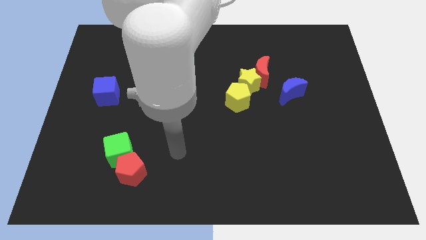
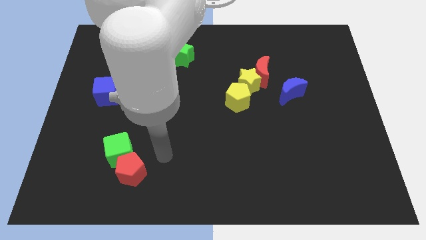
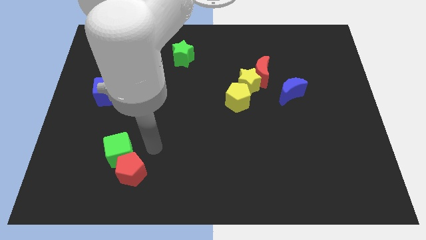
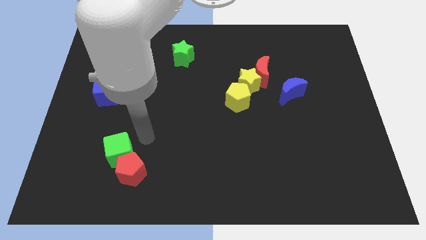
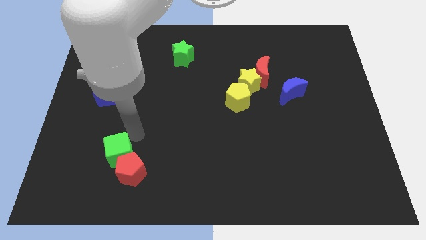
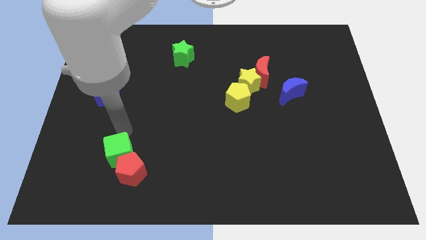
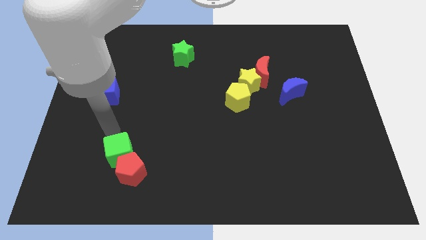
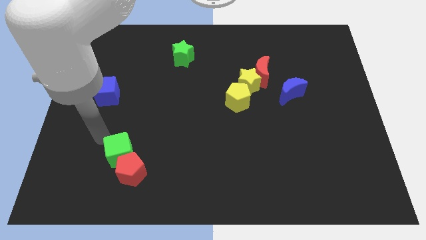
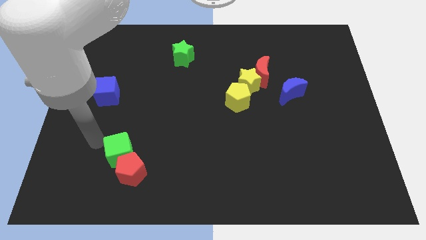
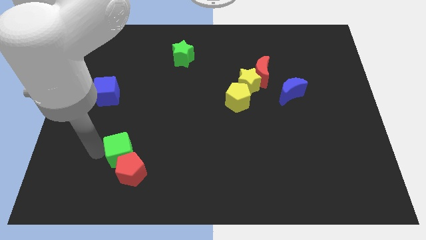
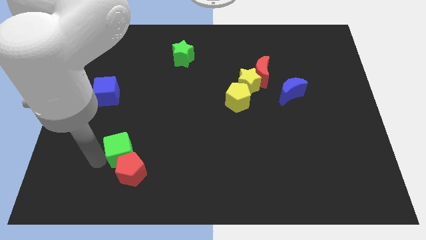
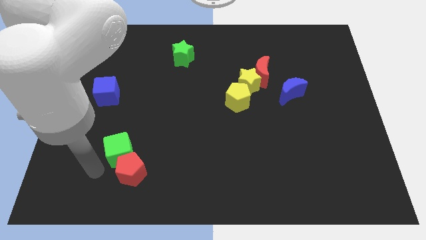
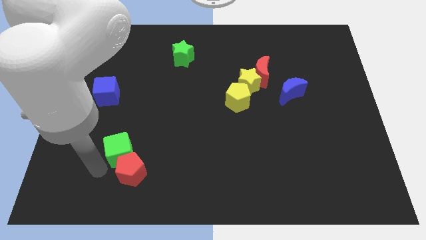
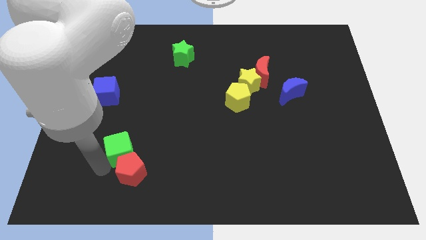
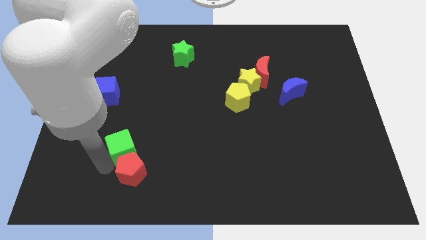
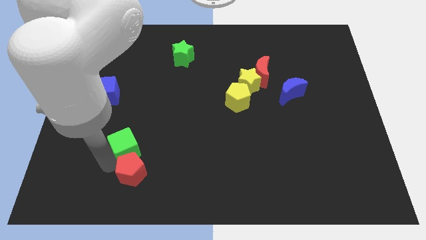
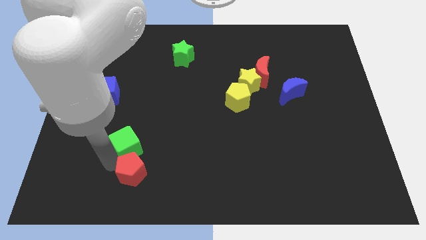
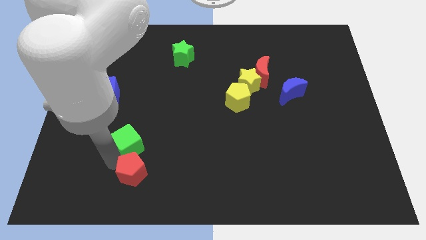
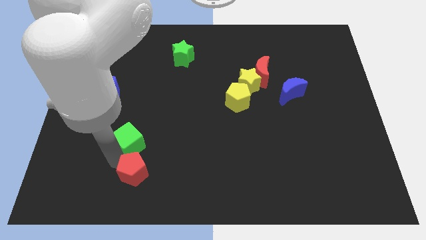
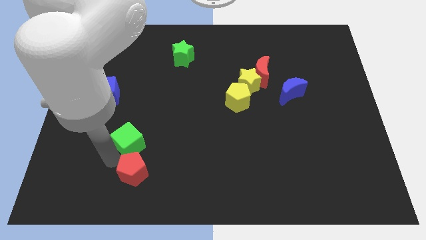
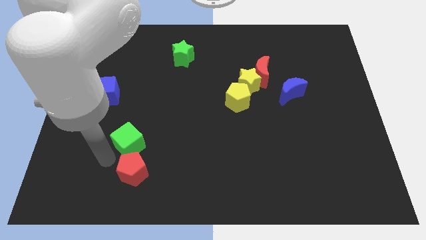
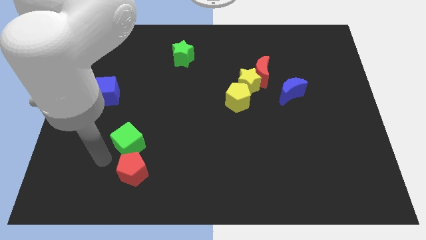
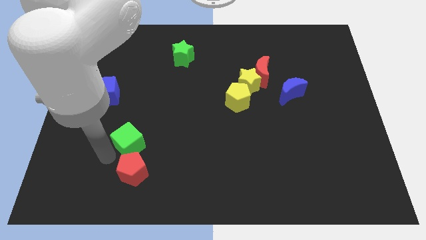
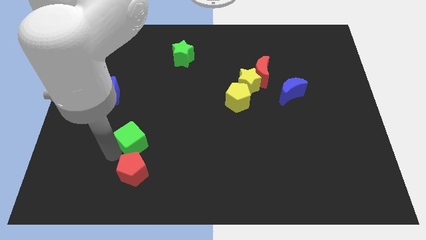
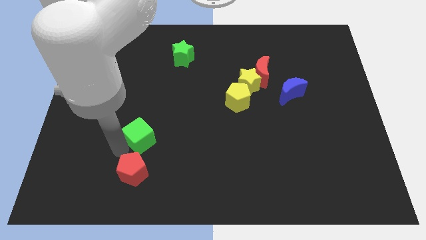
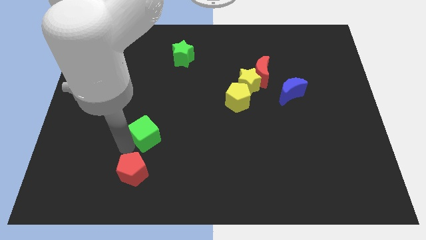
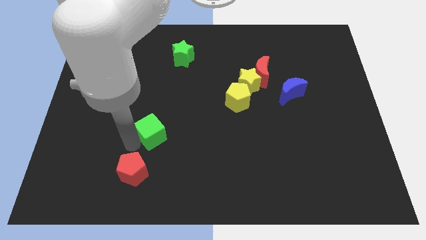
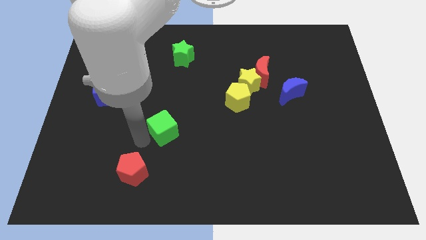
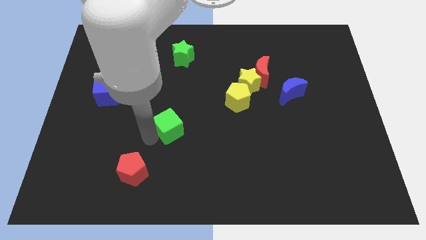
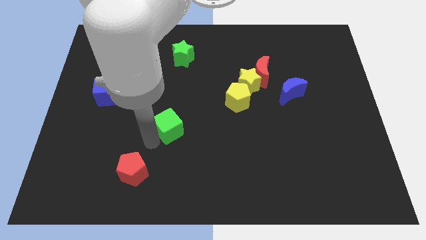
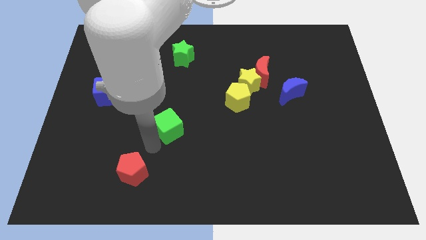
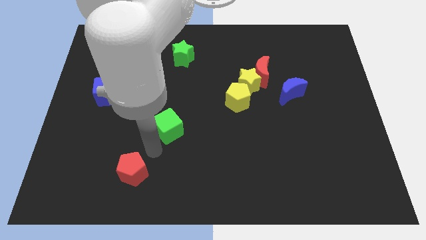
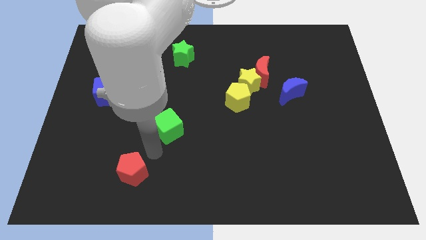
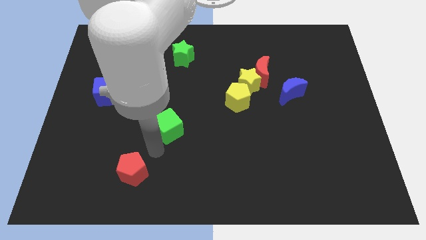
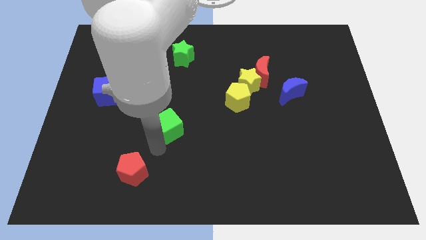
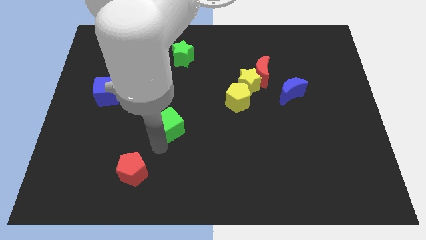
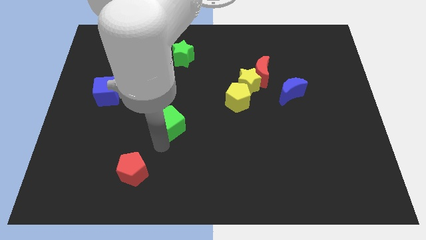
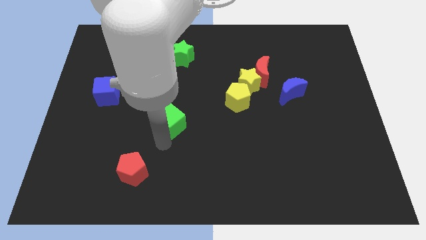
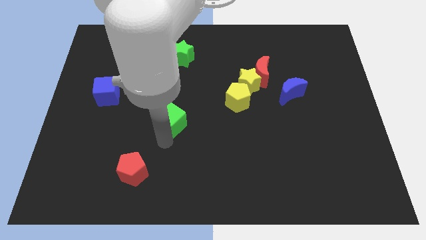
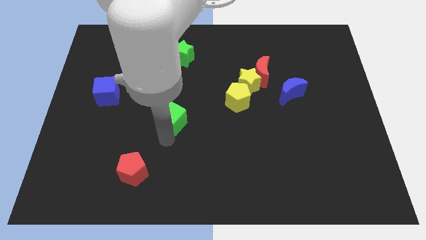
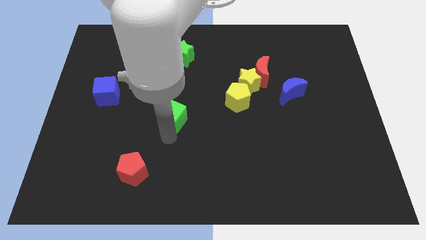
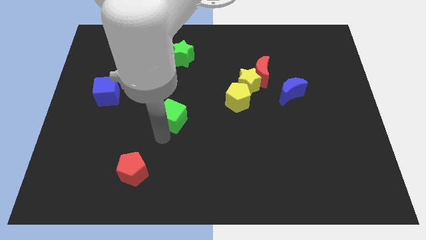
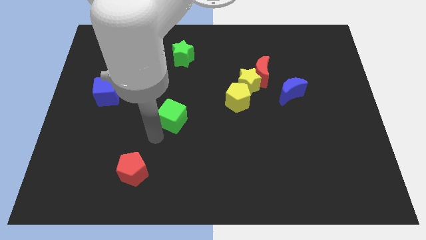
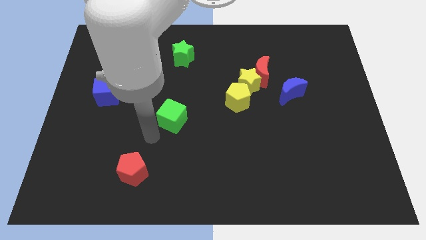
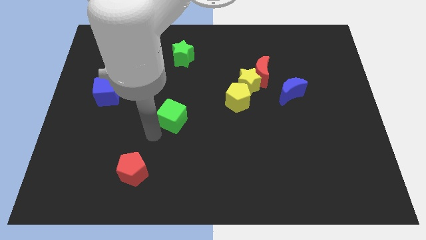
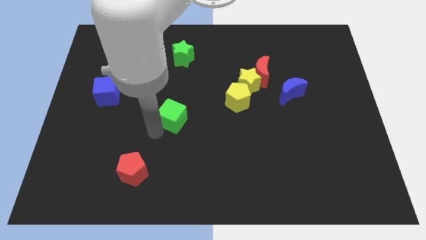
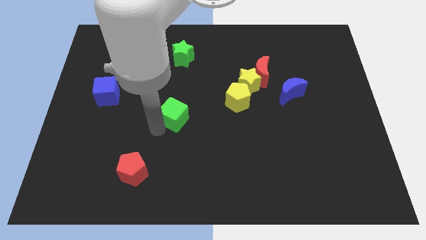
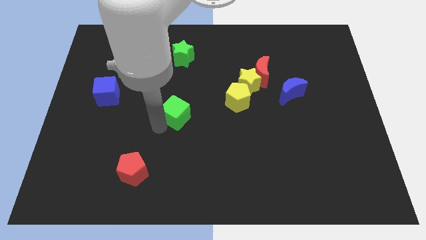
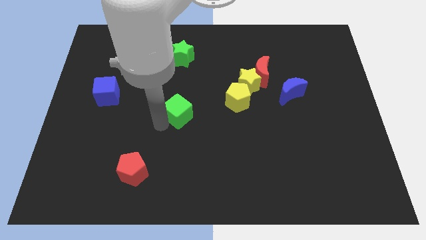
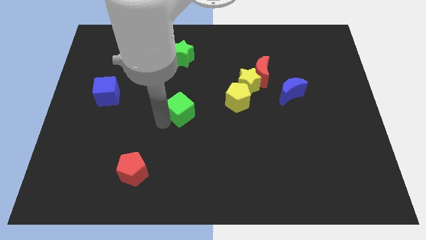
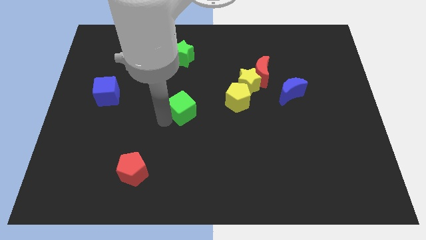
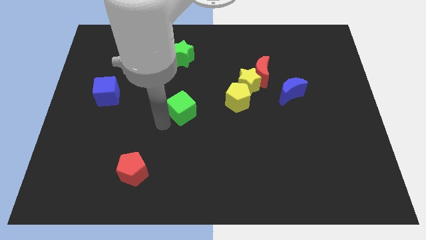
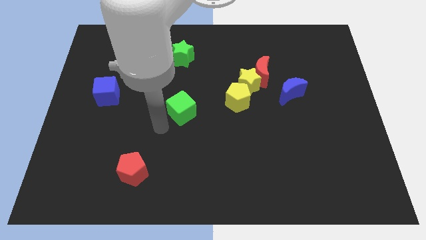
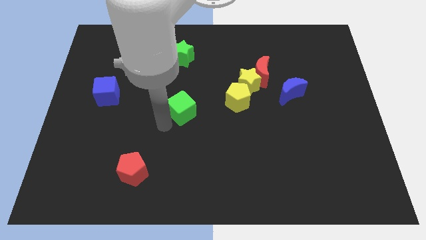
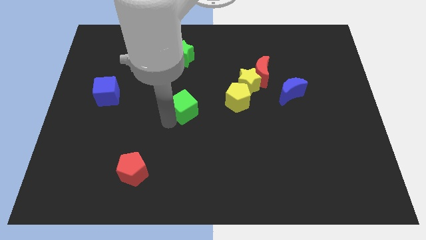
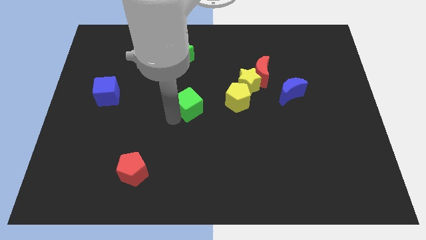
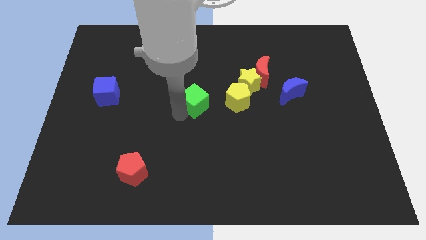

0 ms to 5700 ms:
move the green cube diagonally upwards and right

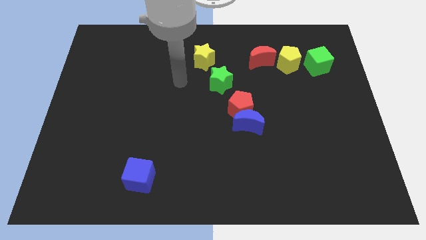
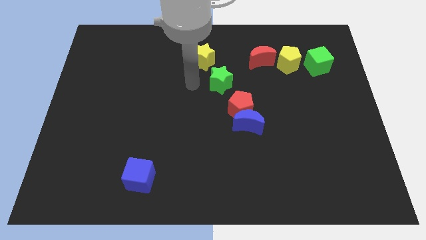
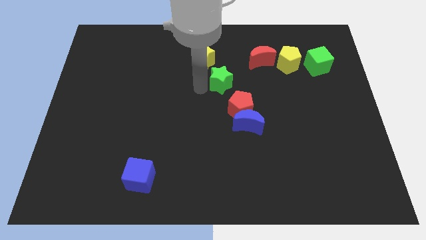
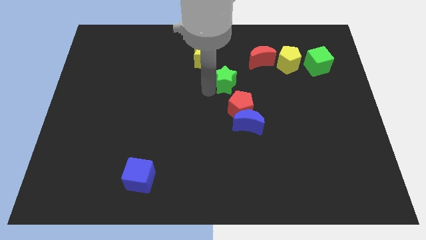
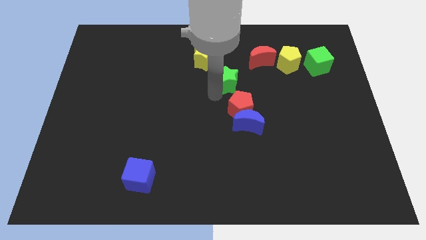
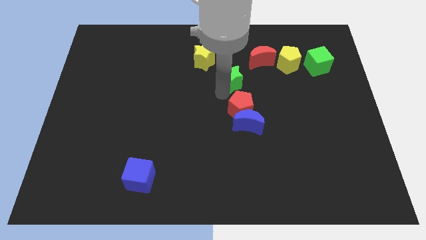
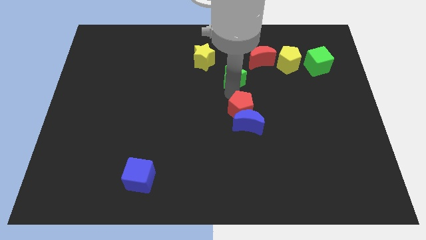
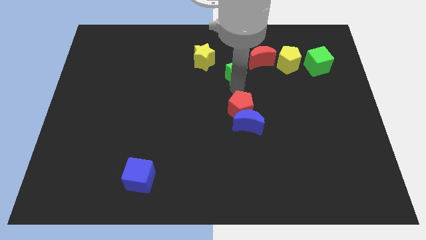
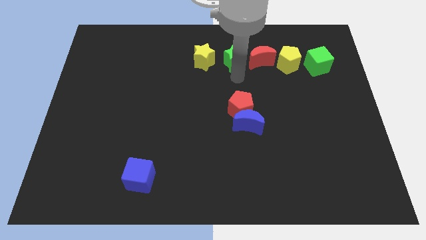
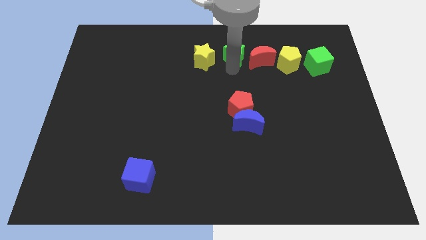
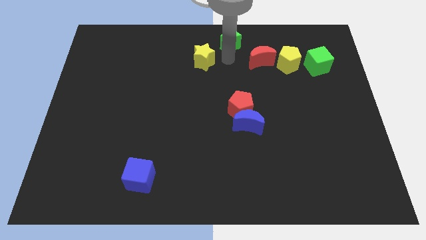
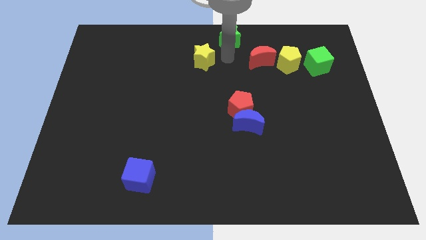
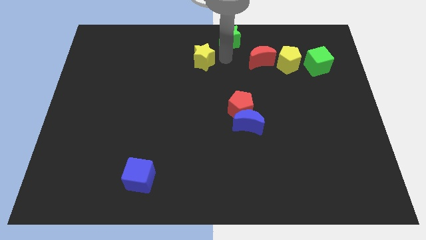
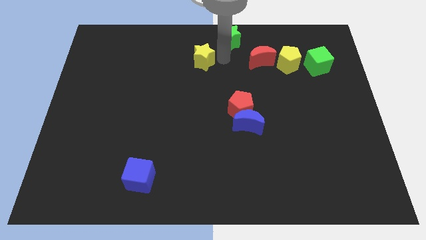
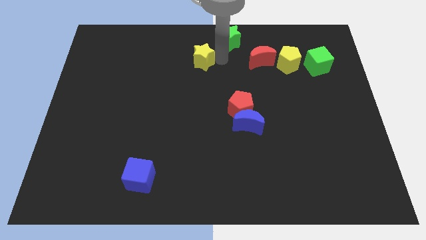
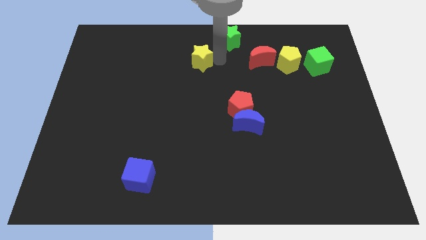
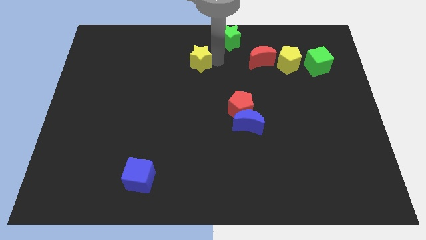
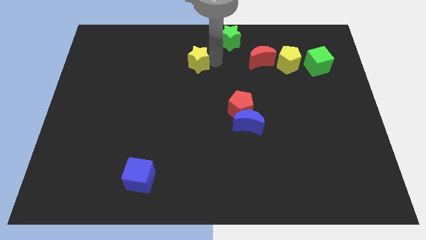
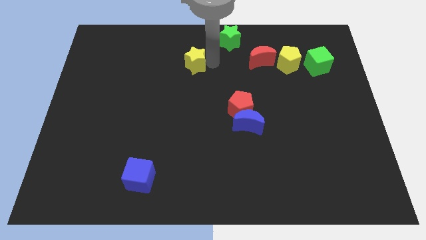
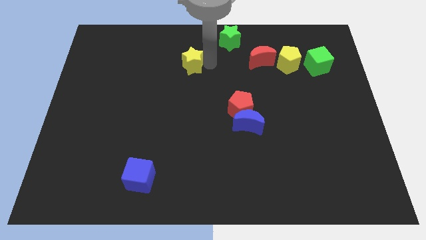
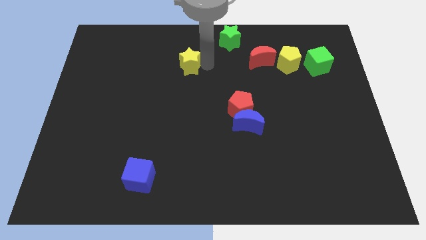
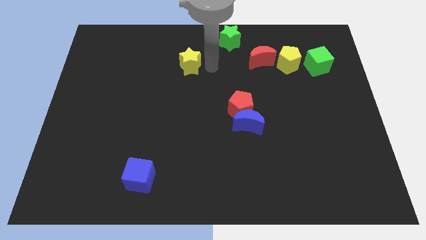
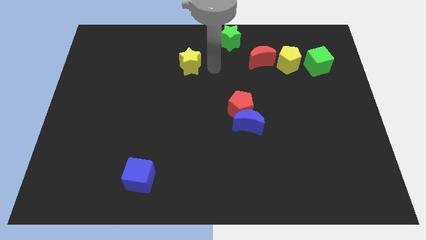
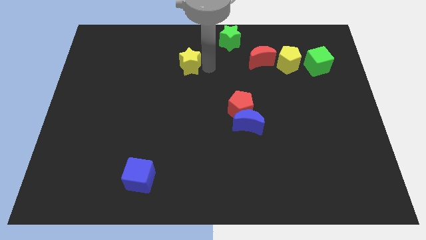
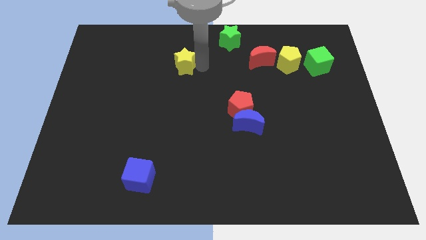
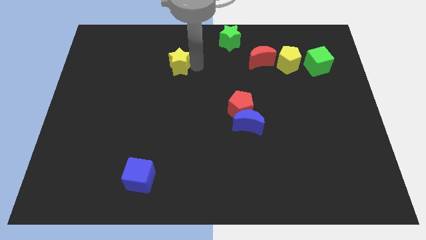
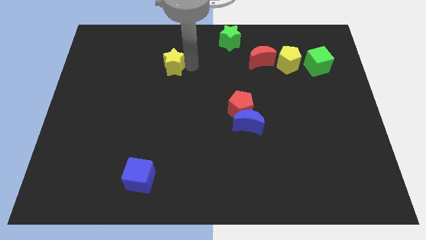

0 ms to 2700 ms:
slightly push the yellow star left
